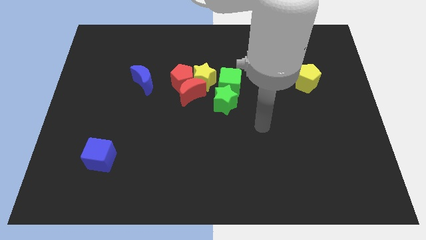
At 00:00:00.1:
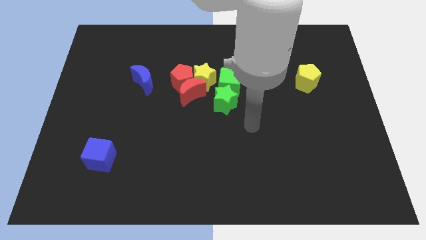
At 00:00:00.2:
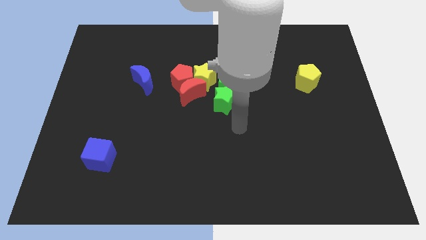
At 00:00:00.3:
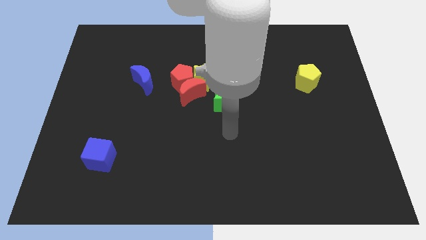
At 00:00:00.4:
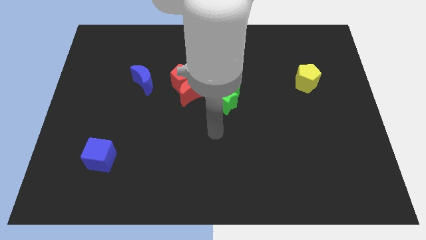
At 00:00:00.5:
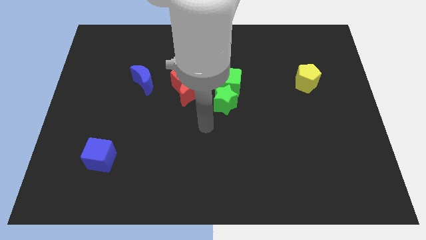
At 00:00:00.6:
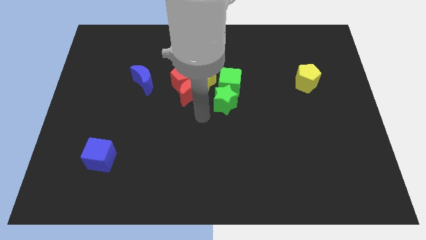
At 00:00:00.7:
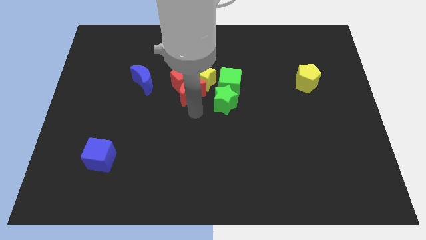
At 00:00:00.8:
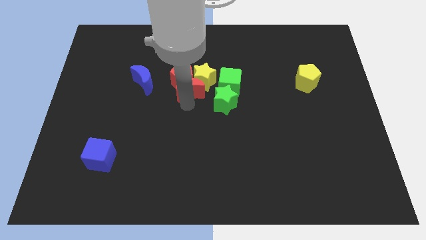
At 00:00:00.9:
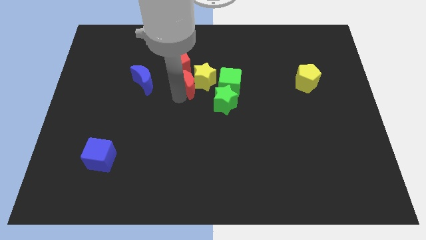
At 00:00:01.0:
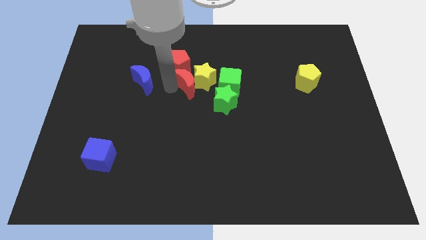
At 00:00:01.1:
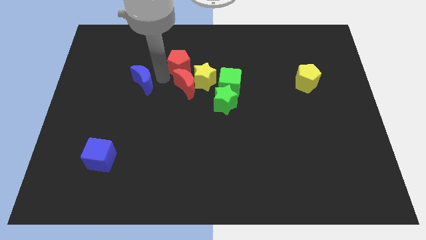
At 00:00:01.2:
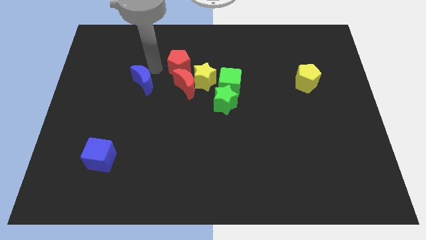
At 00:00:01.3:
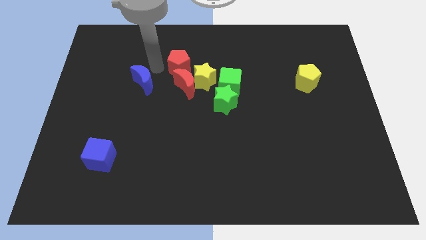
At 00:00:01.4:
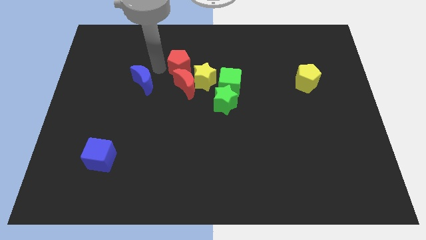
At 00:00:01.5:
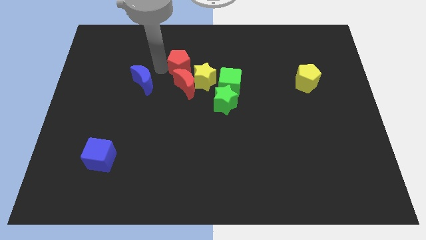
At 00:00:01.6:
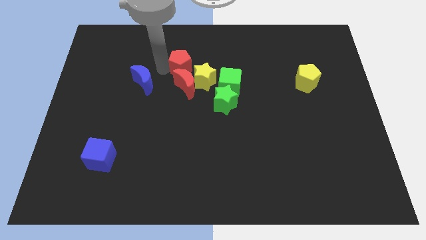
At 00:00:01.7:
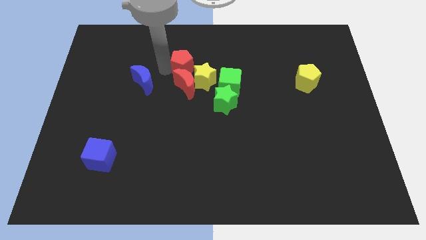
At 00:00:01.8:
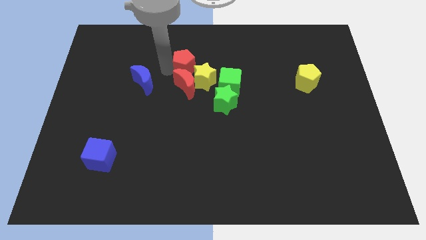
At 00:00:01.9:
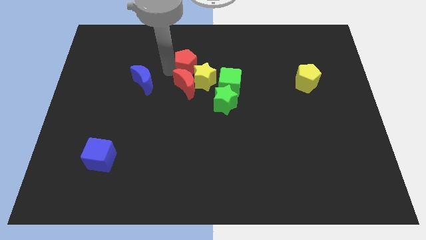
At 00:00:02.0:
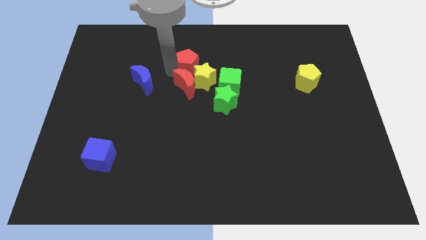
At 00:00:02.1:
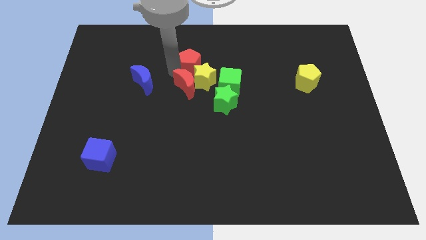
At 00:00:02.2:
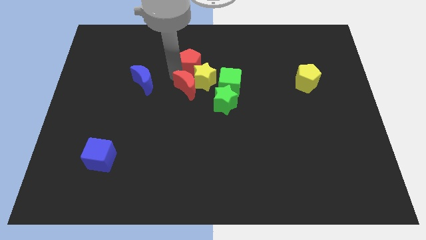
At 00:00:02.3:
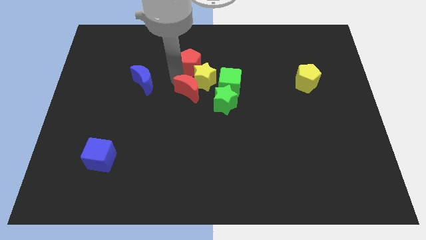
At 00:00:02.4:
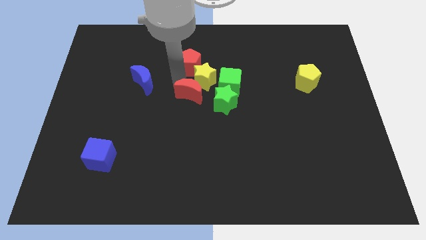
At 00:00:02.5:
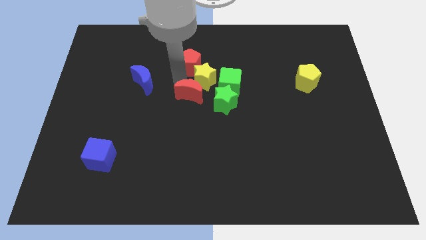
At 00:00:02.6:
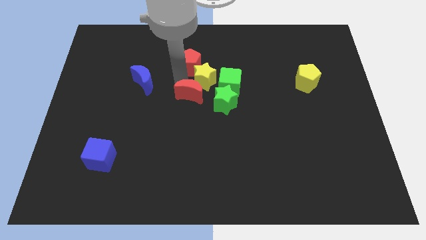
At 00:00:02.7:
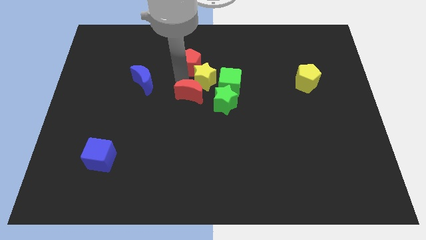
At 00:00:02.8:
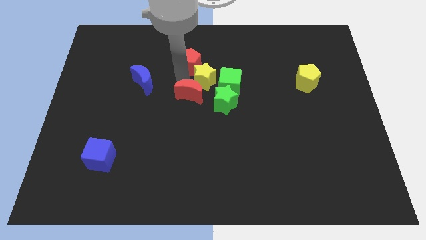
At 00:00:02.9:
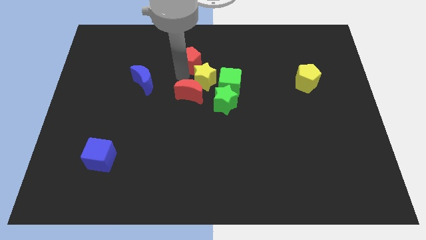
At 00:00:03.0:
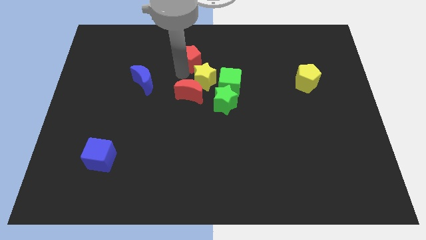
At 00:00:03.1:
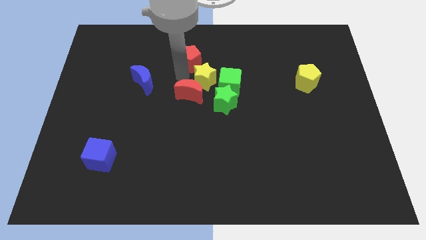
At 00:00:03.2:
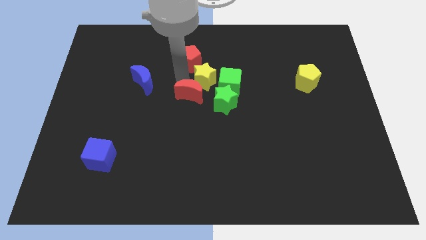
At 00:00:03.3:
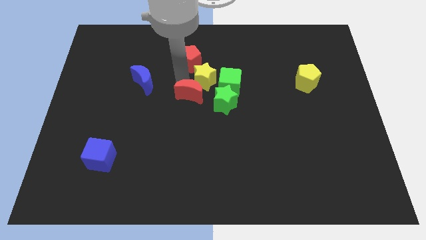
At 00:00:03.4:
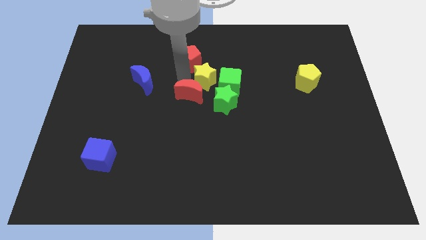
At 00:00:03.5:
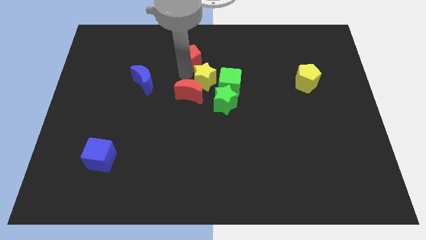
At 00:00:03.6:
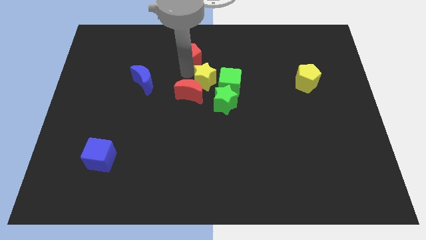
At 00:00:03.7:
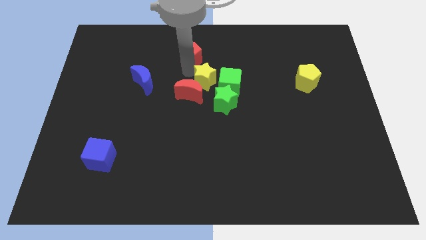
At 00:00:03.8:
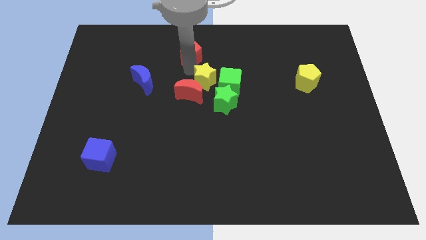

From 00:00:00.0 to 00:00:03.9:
separate the red pentagon from the group of blocks

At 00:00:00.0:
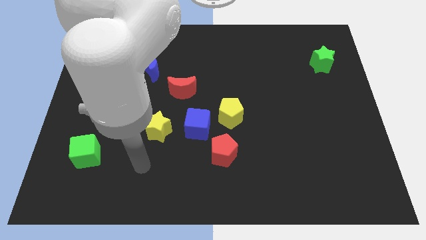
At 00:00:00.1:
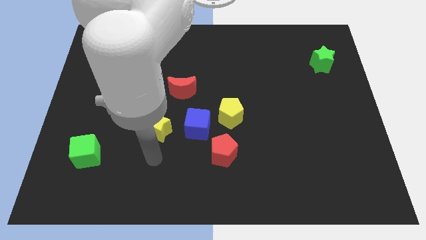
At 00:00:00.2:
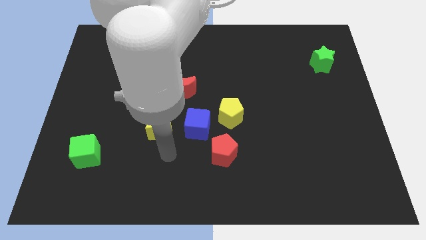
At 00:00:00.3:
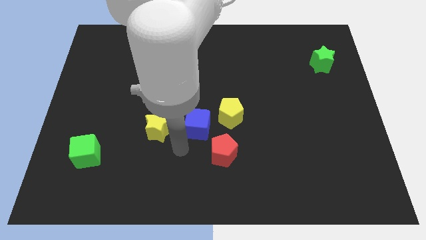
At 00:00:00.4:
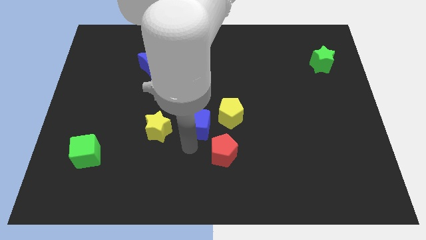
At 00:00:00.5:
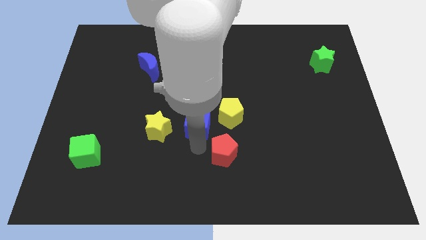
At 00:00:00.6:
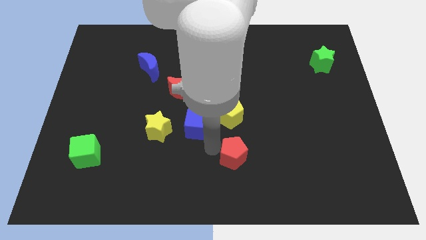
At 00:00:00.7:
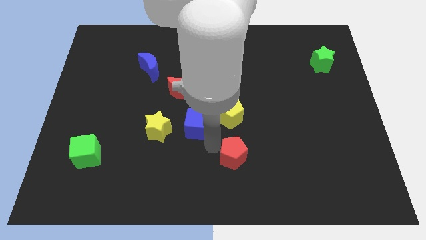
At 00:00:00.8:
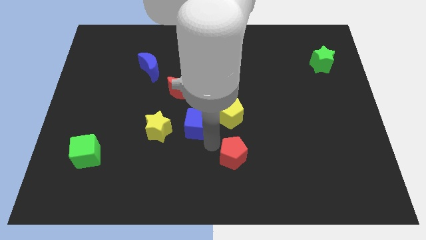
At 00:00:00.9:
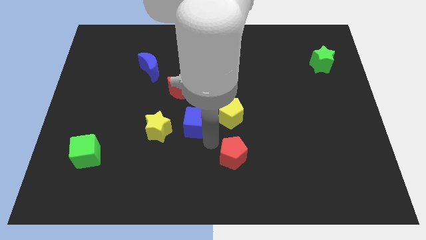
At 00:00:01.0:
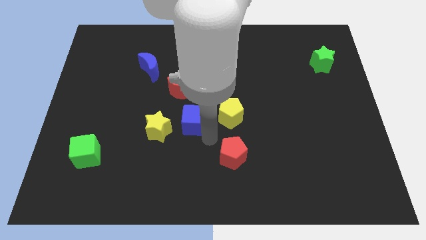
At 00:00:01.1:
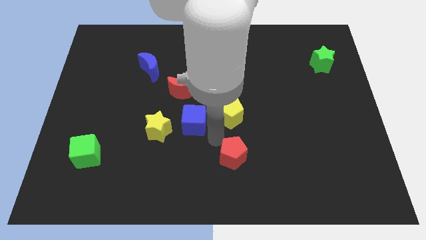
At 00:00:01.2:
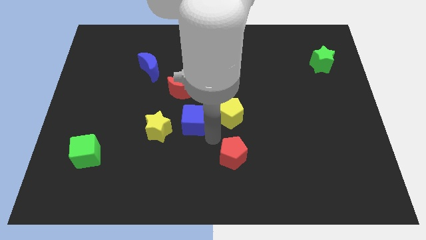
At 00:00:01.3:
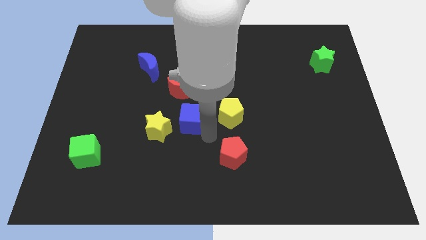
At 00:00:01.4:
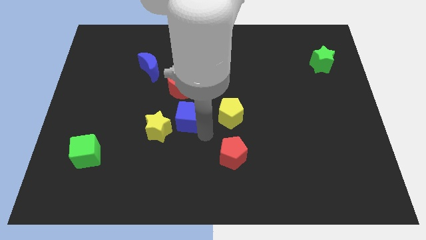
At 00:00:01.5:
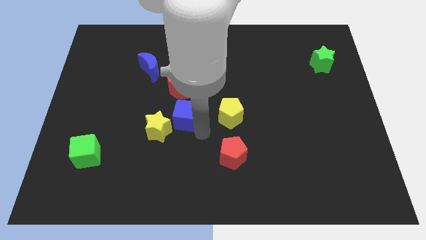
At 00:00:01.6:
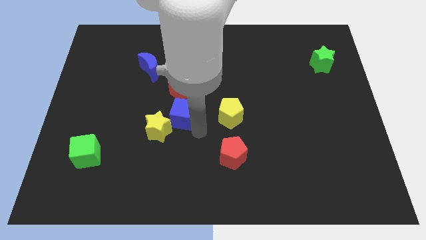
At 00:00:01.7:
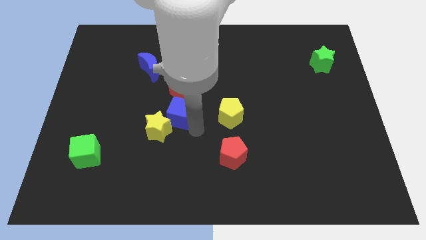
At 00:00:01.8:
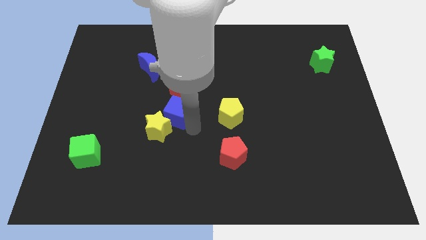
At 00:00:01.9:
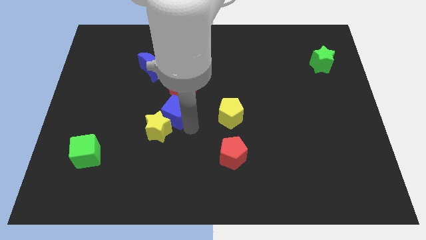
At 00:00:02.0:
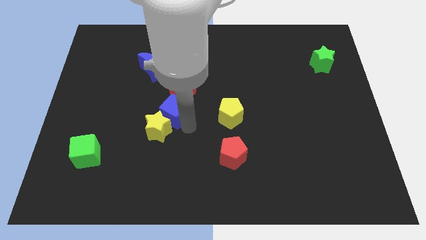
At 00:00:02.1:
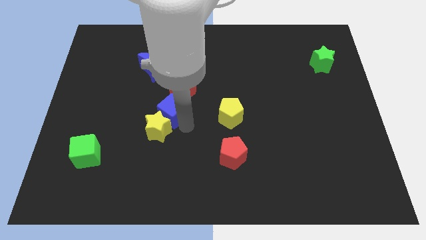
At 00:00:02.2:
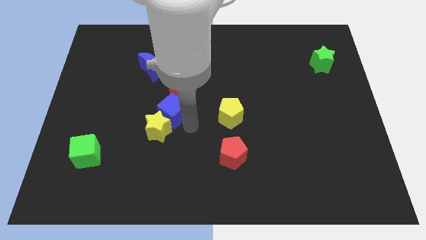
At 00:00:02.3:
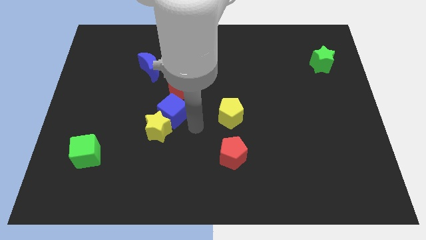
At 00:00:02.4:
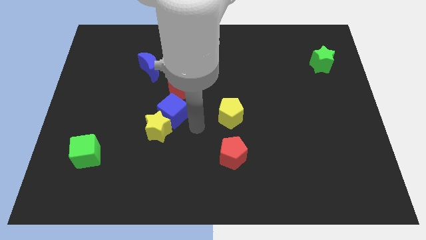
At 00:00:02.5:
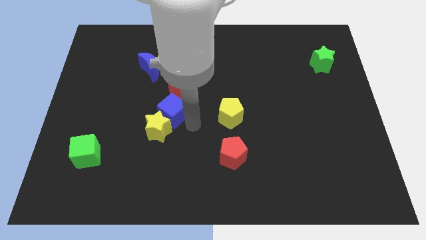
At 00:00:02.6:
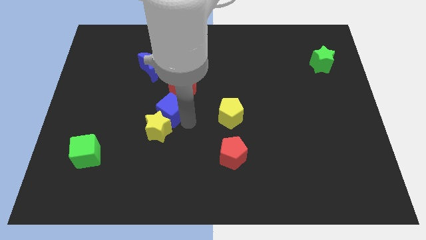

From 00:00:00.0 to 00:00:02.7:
separate the blue cube from the clump

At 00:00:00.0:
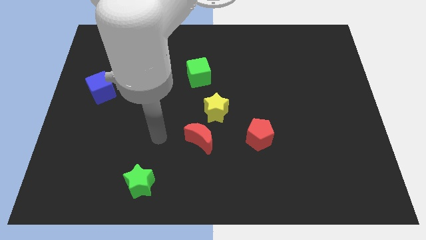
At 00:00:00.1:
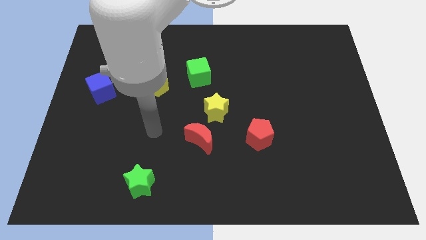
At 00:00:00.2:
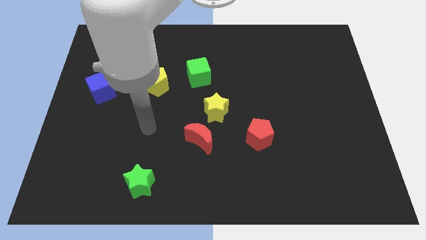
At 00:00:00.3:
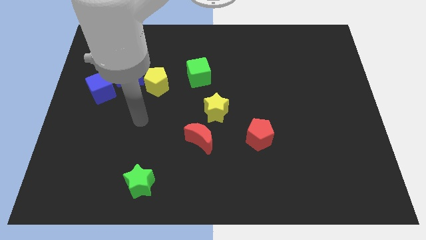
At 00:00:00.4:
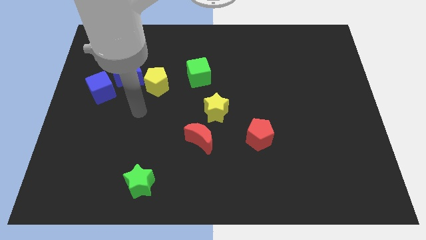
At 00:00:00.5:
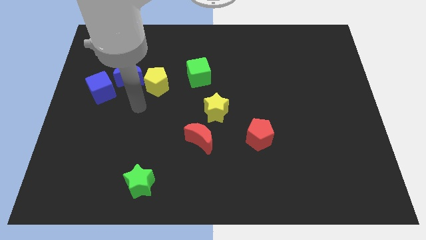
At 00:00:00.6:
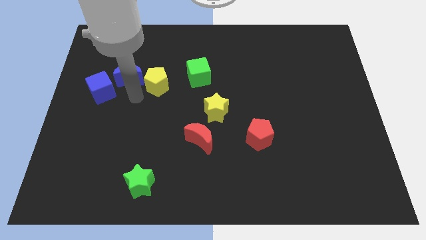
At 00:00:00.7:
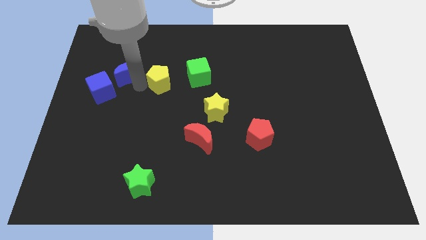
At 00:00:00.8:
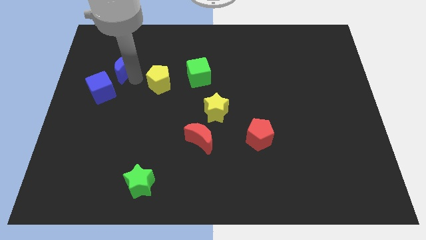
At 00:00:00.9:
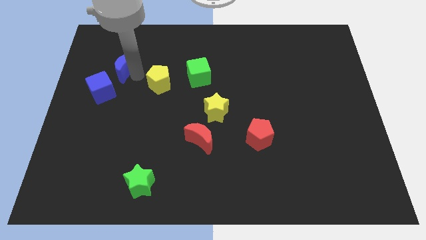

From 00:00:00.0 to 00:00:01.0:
move the yellow pentagon away from the blue moon

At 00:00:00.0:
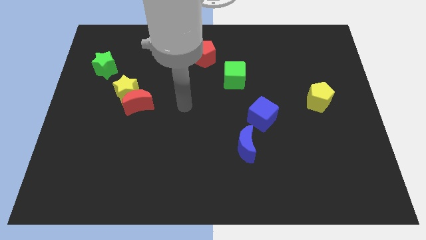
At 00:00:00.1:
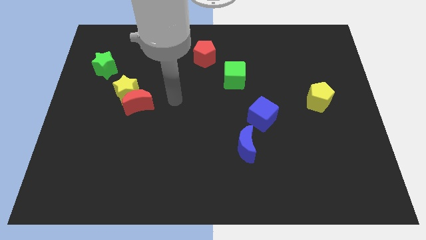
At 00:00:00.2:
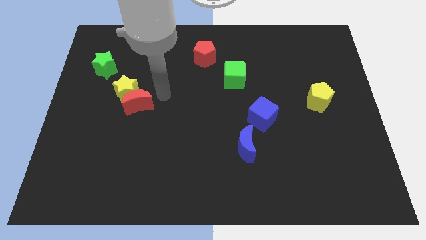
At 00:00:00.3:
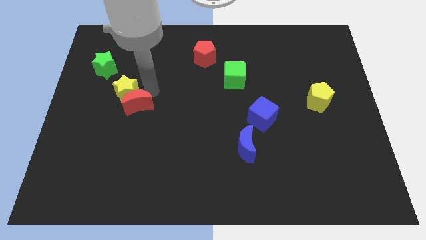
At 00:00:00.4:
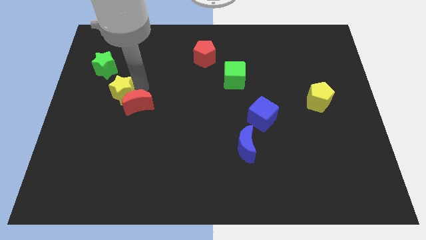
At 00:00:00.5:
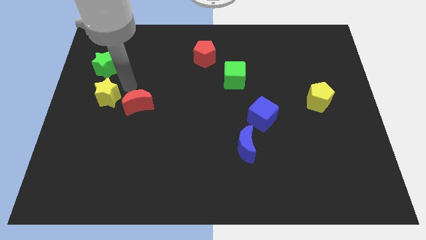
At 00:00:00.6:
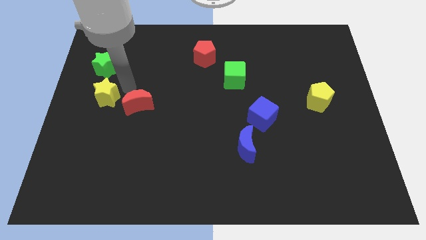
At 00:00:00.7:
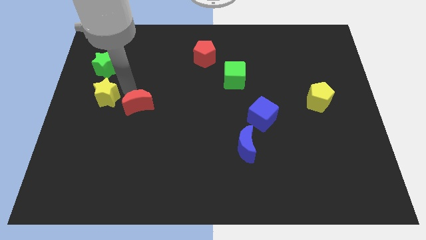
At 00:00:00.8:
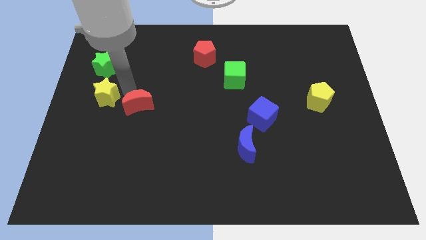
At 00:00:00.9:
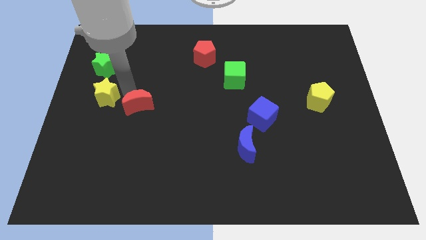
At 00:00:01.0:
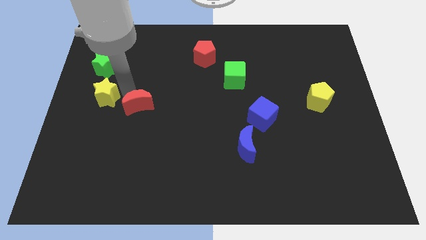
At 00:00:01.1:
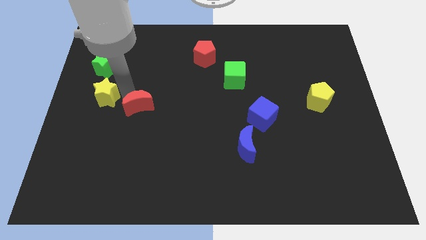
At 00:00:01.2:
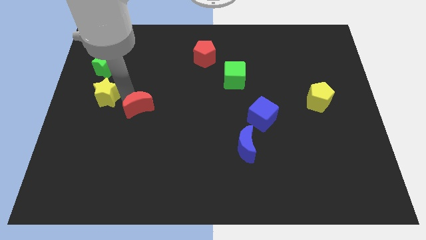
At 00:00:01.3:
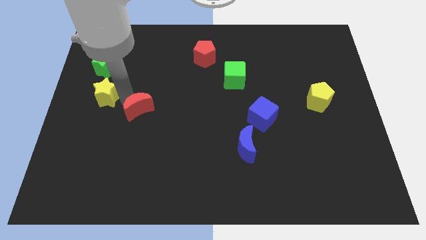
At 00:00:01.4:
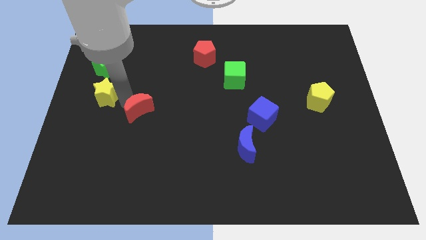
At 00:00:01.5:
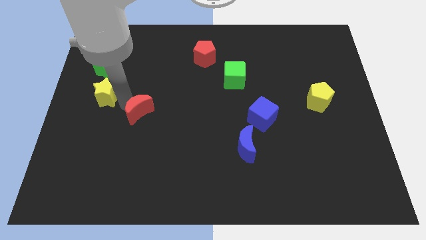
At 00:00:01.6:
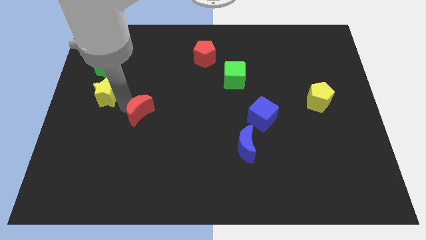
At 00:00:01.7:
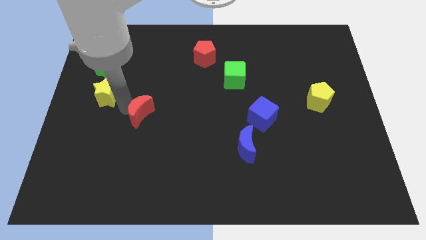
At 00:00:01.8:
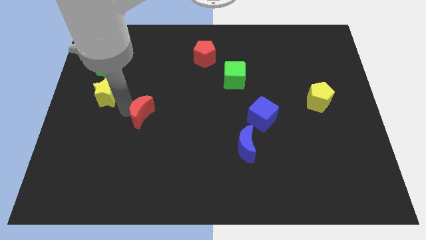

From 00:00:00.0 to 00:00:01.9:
pull the red moon apart from the yellow star
